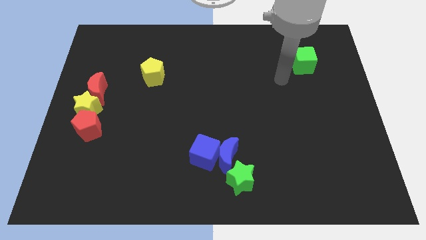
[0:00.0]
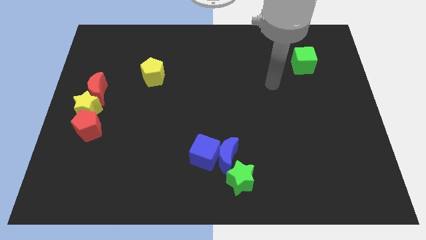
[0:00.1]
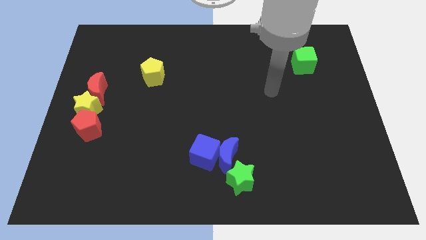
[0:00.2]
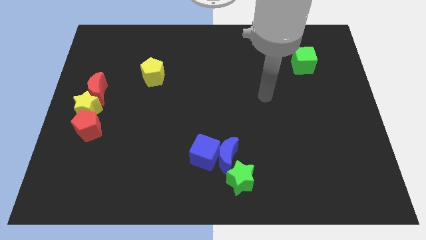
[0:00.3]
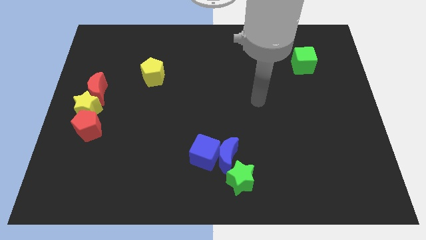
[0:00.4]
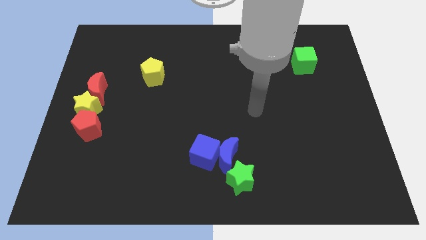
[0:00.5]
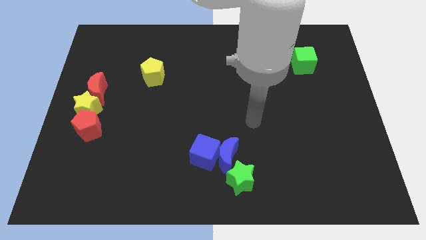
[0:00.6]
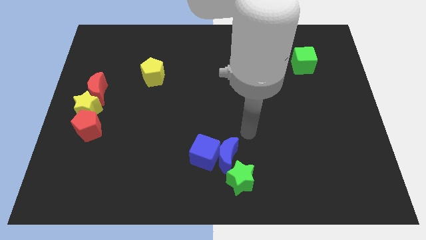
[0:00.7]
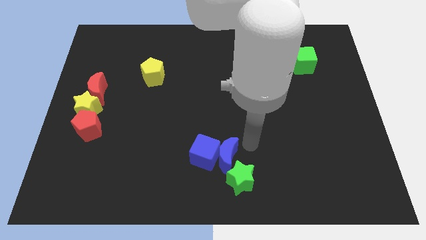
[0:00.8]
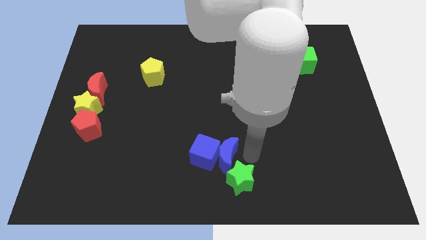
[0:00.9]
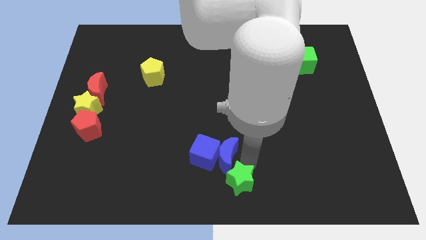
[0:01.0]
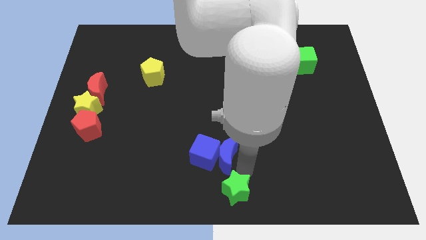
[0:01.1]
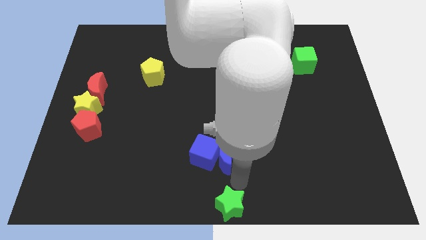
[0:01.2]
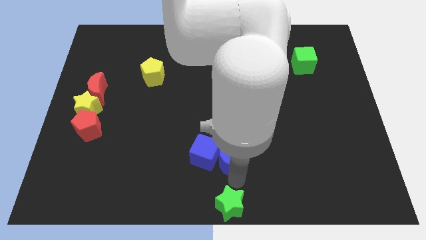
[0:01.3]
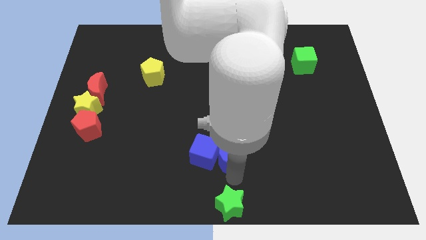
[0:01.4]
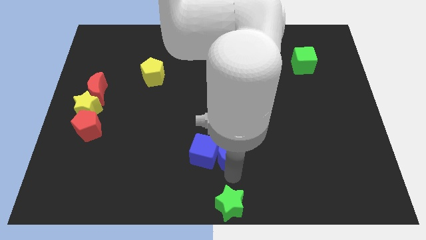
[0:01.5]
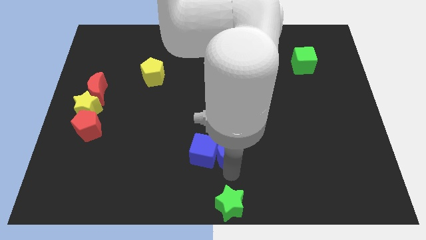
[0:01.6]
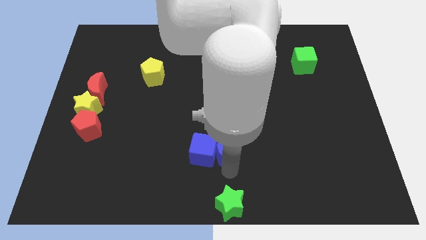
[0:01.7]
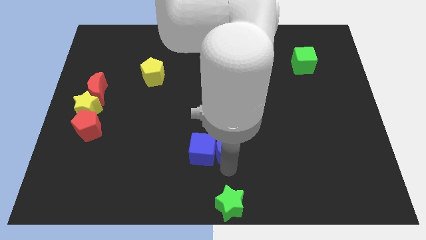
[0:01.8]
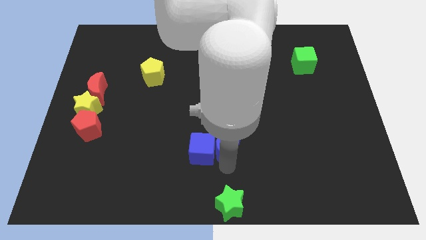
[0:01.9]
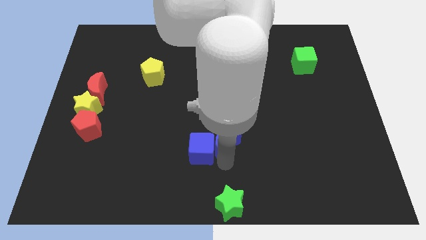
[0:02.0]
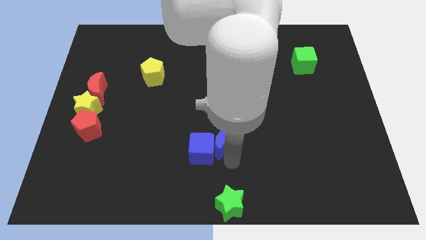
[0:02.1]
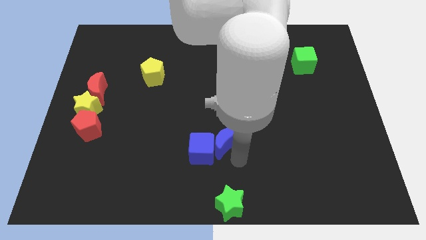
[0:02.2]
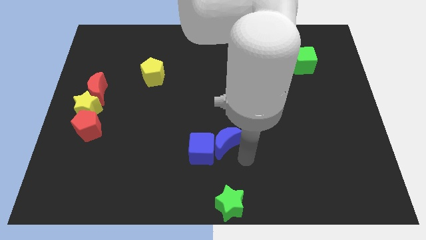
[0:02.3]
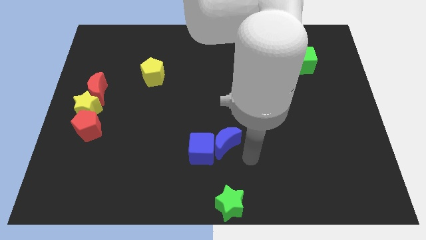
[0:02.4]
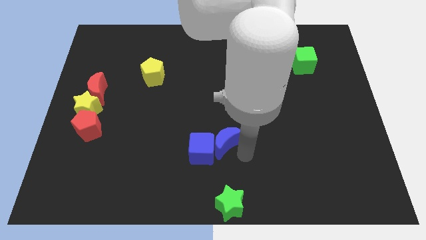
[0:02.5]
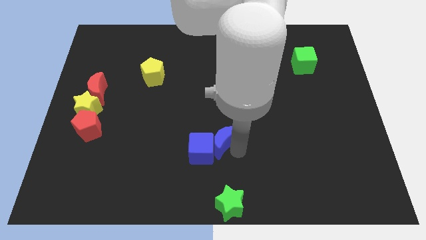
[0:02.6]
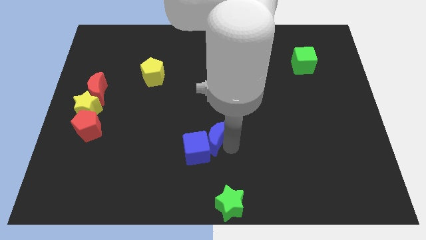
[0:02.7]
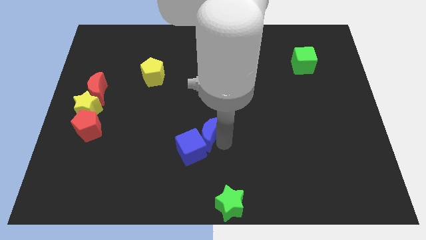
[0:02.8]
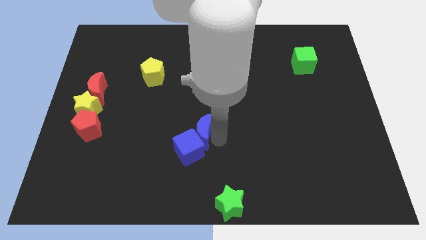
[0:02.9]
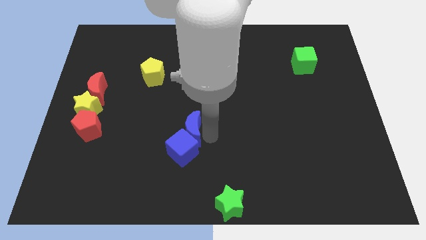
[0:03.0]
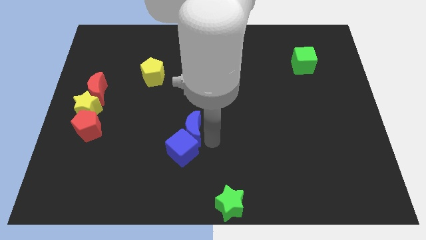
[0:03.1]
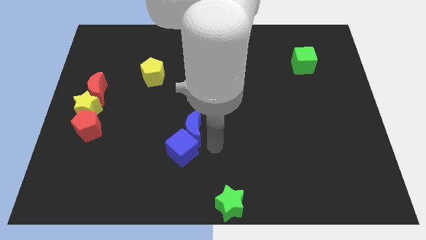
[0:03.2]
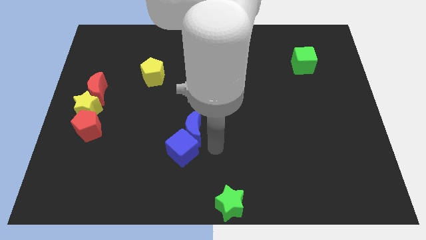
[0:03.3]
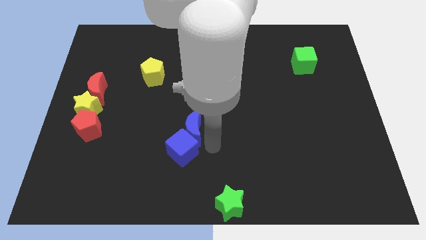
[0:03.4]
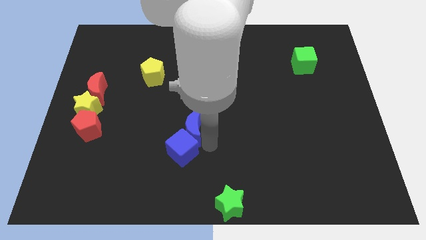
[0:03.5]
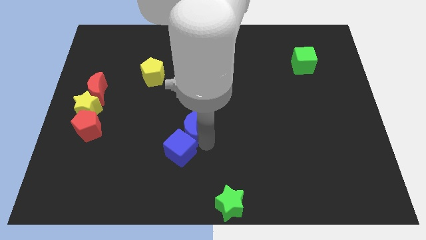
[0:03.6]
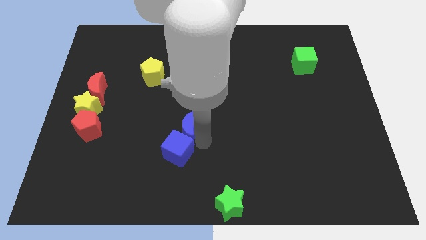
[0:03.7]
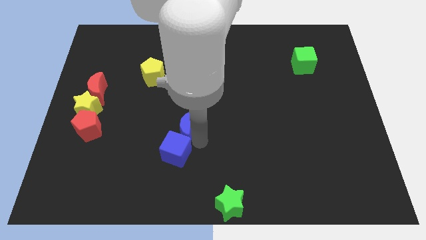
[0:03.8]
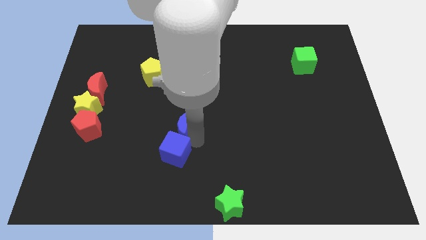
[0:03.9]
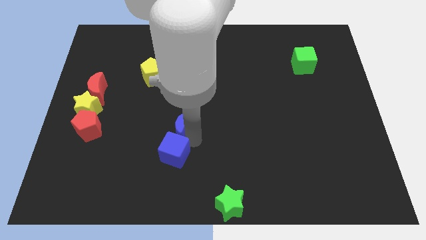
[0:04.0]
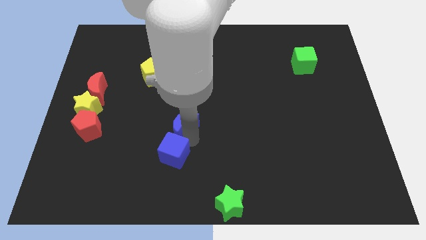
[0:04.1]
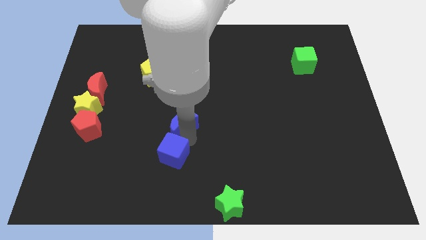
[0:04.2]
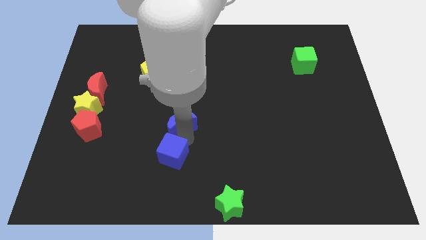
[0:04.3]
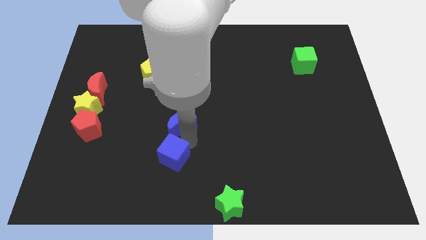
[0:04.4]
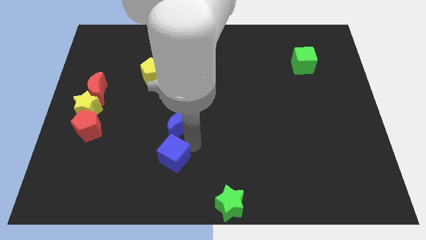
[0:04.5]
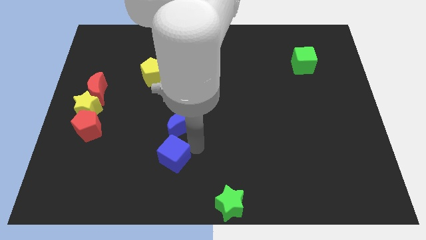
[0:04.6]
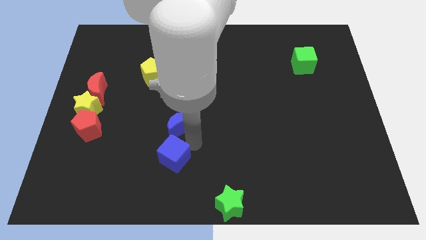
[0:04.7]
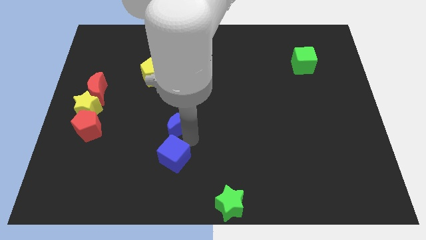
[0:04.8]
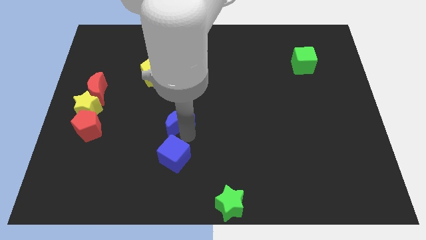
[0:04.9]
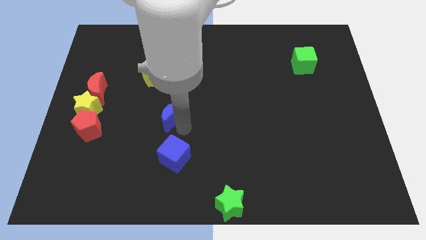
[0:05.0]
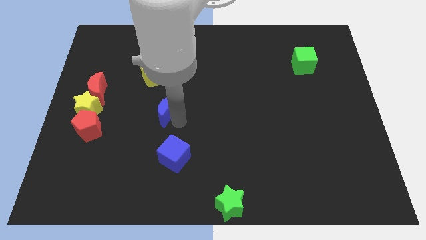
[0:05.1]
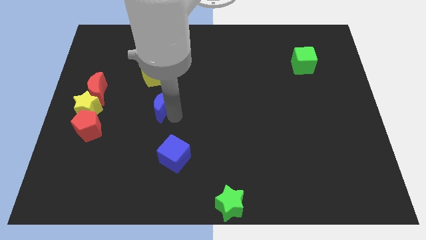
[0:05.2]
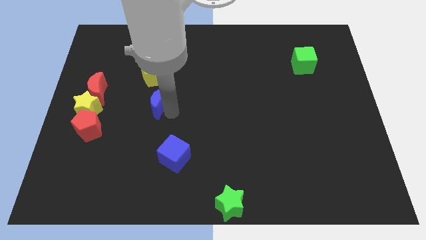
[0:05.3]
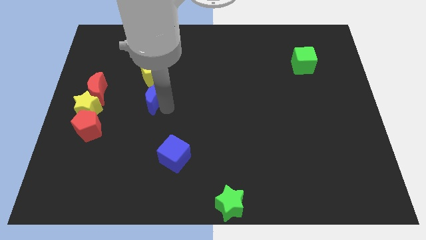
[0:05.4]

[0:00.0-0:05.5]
move the blue moon to the right of the red moon

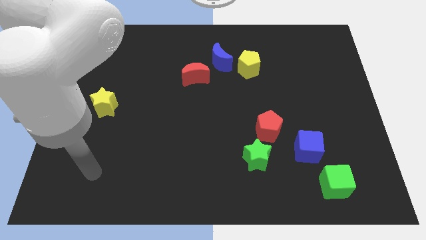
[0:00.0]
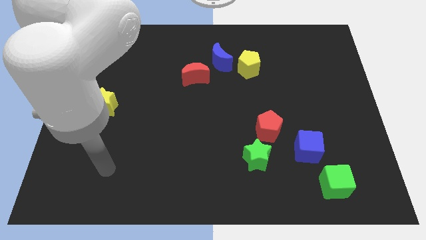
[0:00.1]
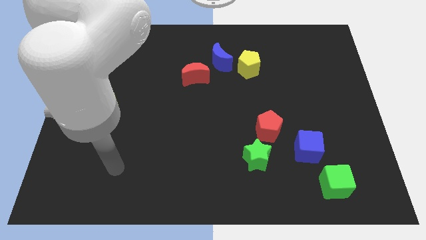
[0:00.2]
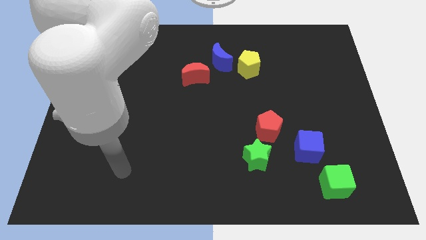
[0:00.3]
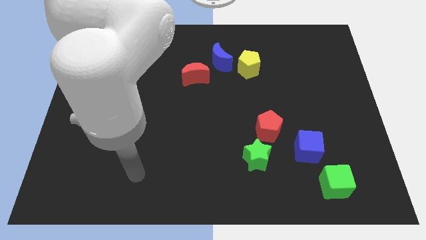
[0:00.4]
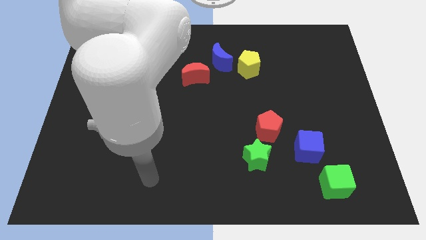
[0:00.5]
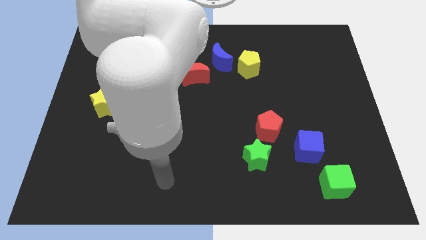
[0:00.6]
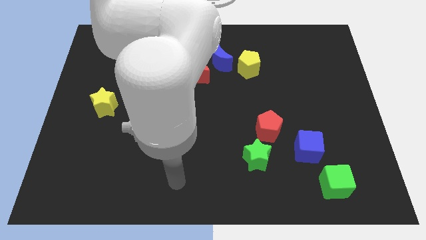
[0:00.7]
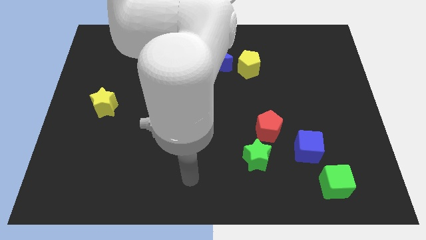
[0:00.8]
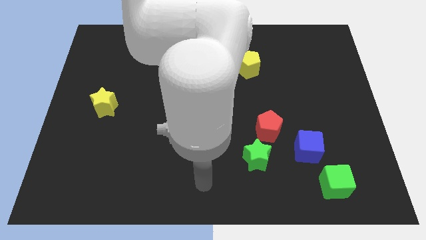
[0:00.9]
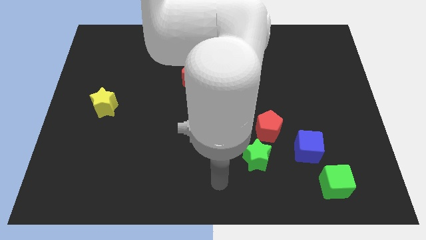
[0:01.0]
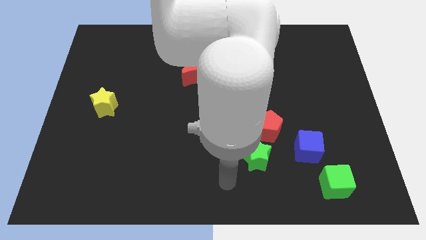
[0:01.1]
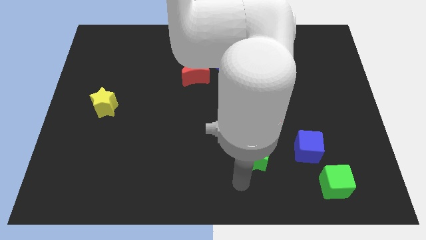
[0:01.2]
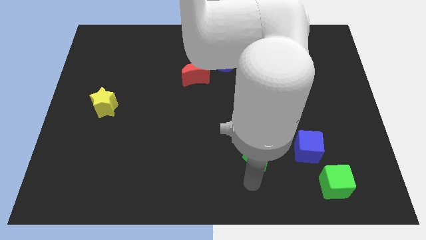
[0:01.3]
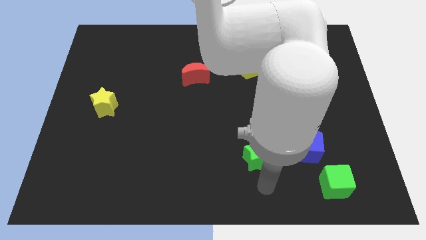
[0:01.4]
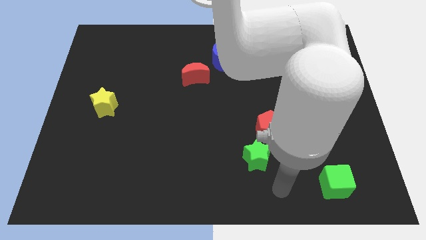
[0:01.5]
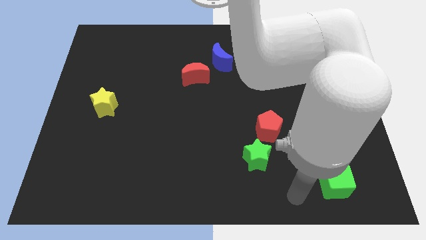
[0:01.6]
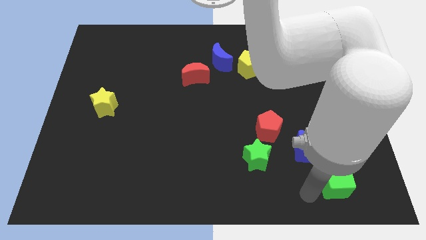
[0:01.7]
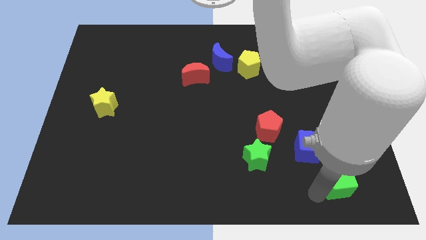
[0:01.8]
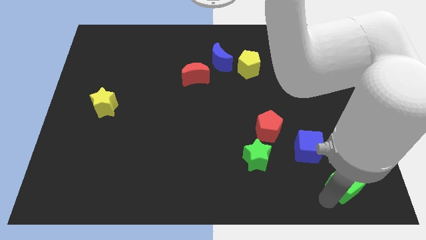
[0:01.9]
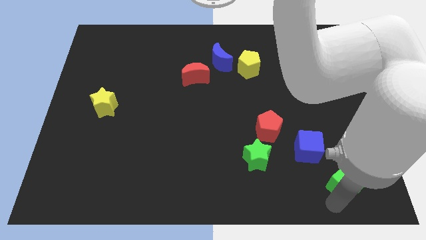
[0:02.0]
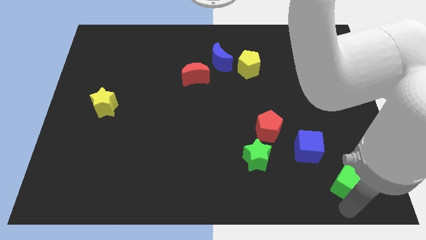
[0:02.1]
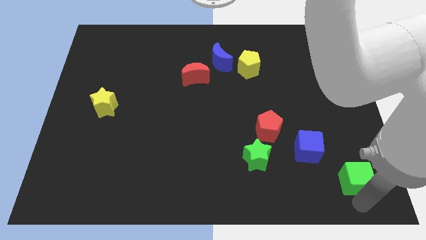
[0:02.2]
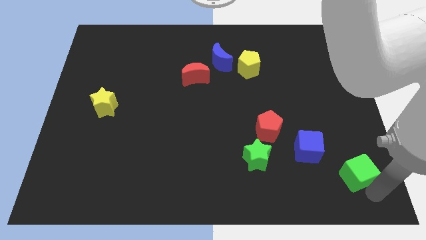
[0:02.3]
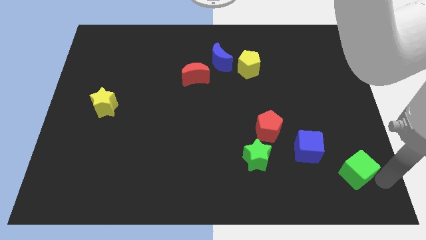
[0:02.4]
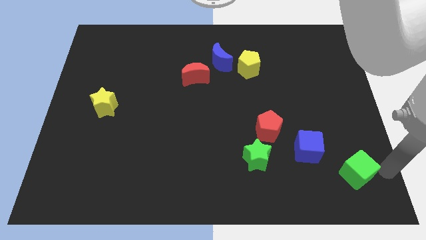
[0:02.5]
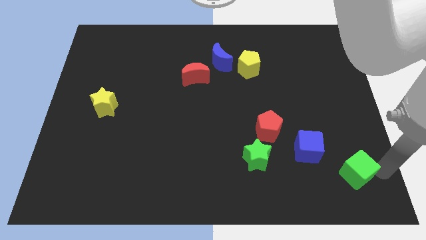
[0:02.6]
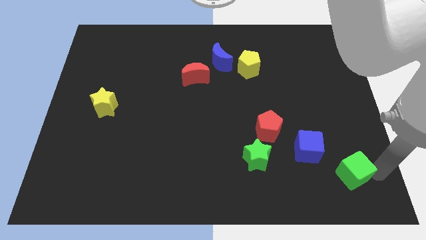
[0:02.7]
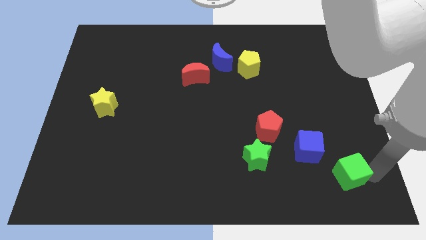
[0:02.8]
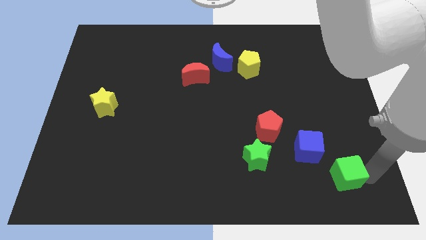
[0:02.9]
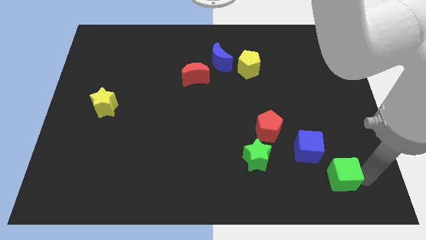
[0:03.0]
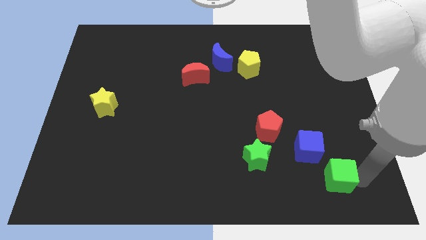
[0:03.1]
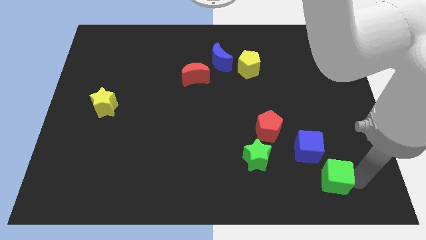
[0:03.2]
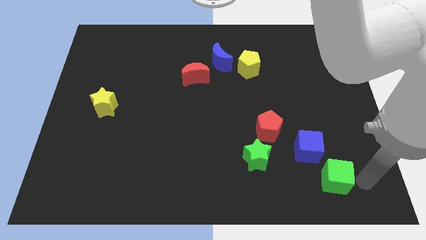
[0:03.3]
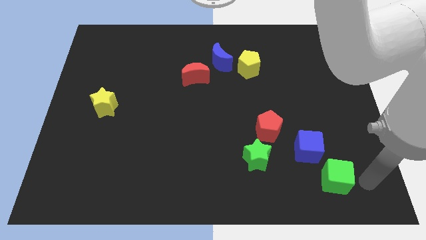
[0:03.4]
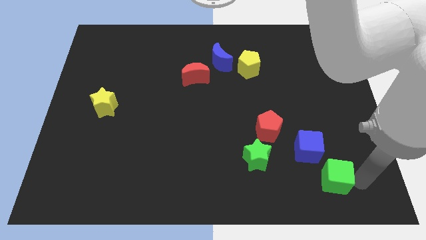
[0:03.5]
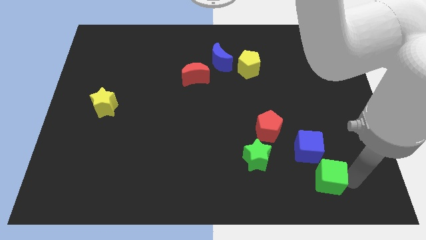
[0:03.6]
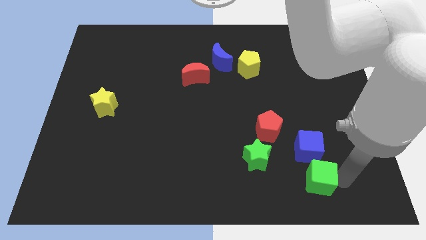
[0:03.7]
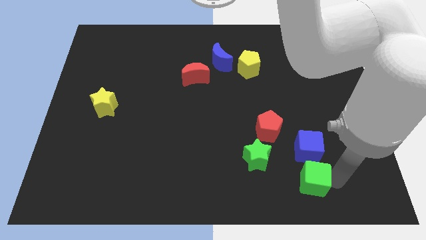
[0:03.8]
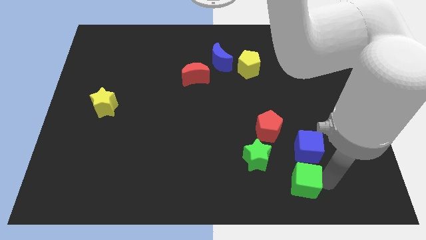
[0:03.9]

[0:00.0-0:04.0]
slide the green cube to the bottom left side of the blue cube
